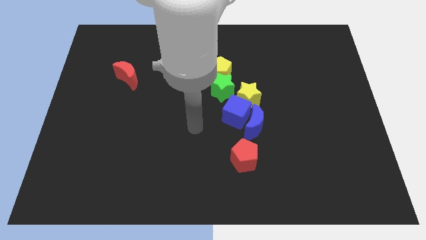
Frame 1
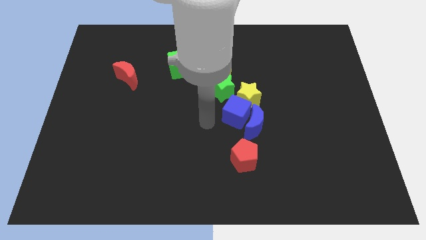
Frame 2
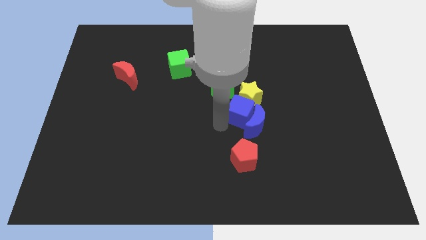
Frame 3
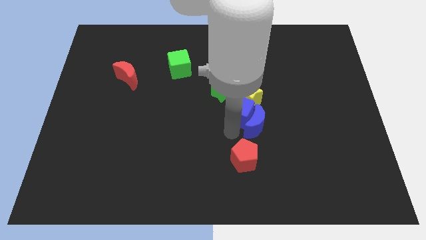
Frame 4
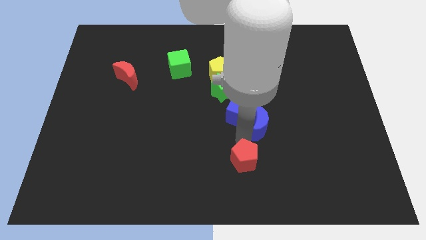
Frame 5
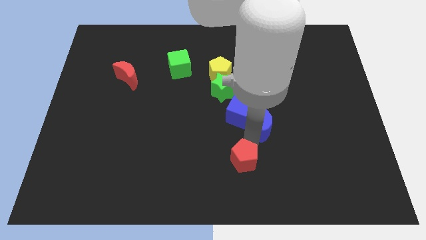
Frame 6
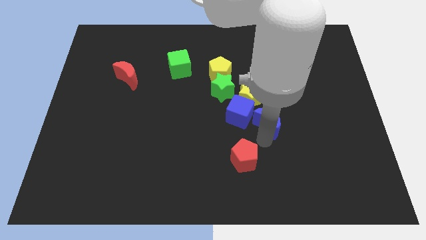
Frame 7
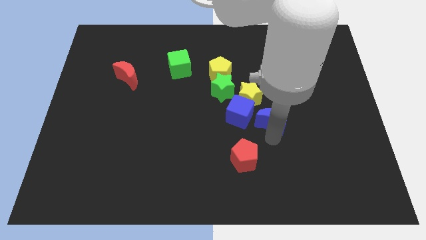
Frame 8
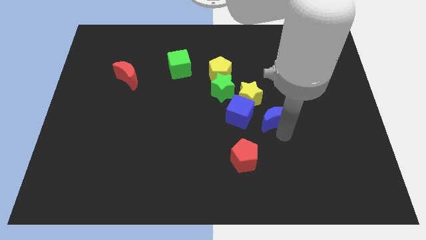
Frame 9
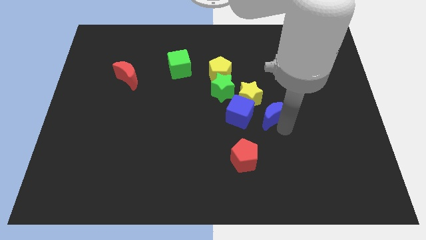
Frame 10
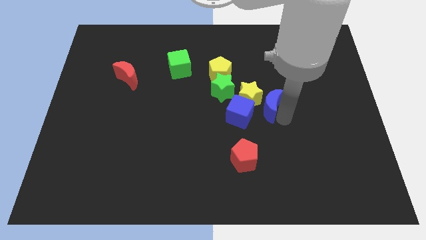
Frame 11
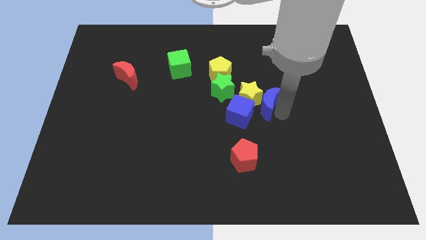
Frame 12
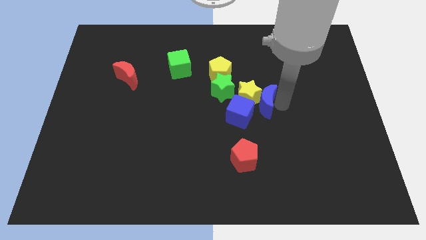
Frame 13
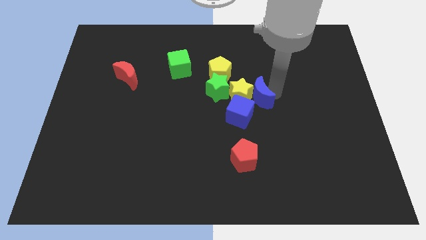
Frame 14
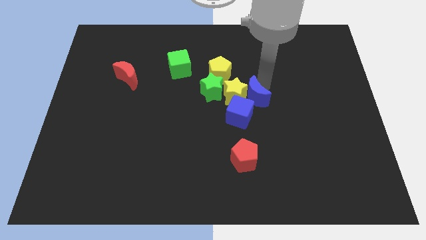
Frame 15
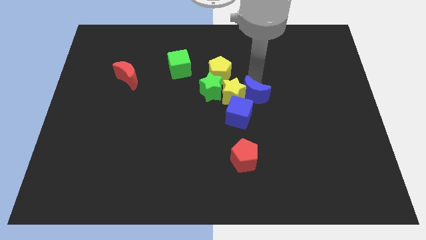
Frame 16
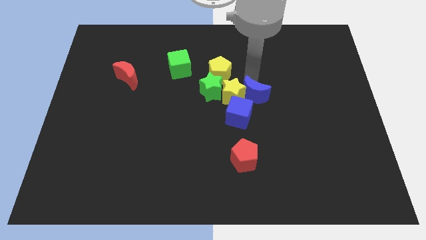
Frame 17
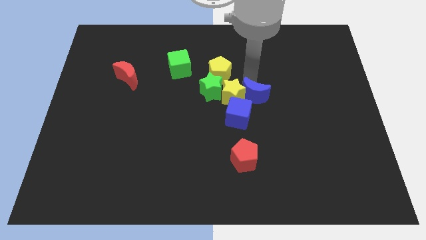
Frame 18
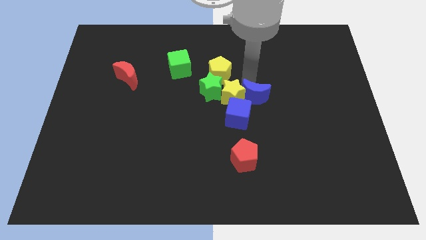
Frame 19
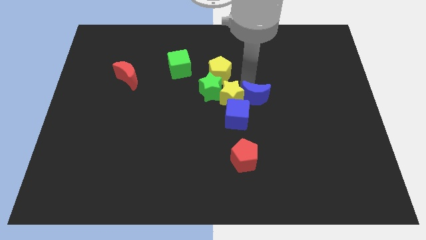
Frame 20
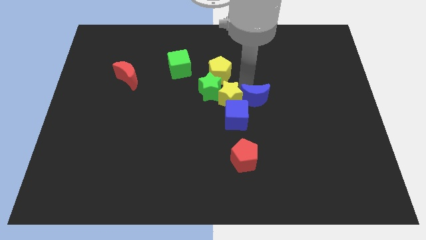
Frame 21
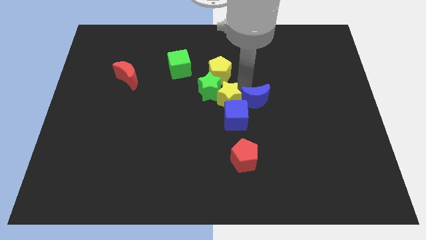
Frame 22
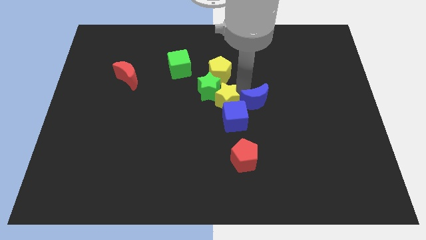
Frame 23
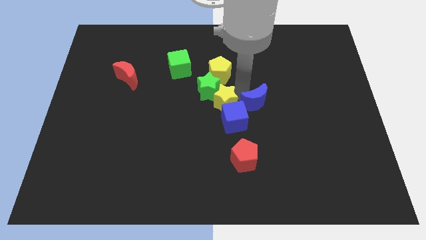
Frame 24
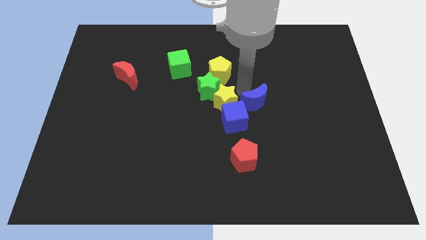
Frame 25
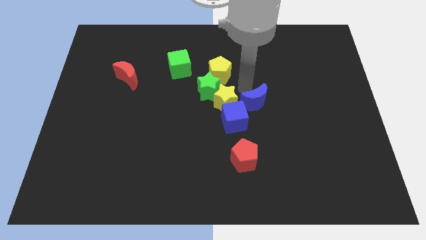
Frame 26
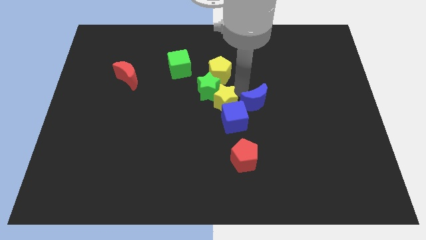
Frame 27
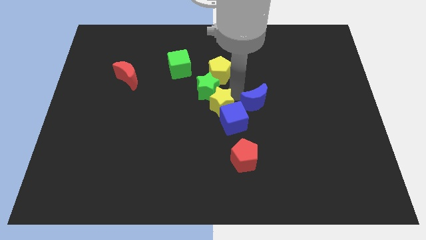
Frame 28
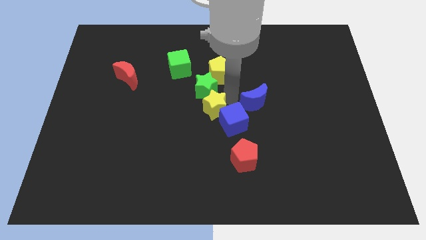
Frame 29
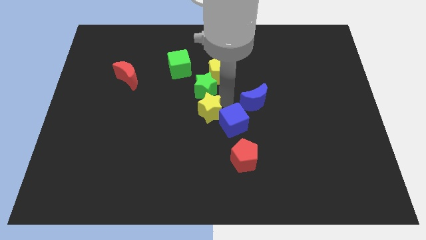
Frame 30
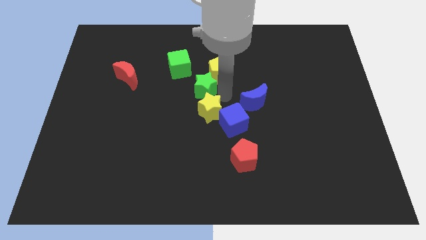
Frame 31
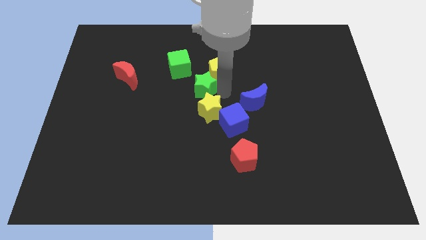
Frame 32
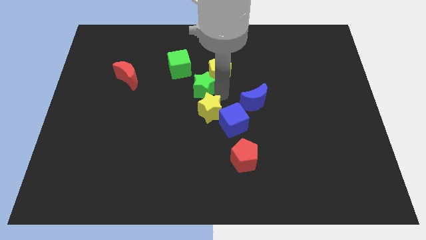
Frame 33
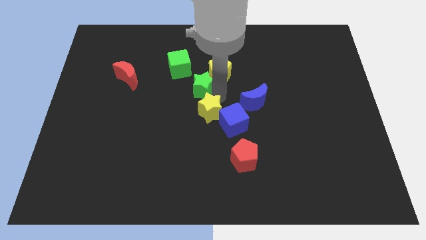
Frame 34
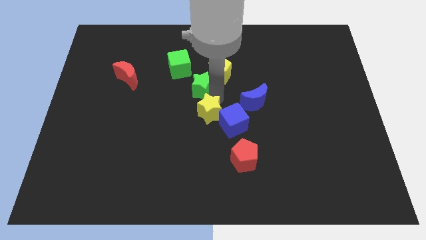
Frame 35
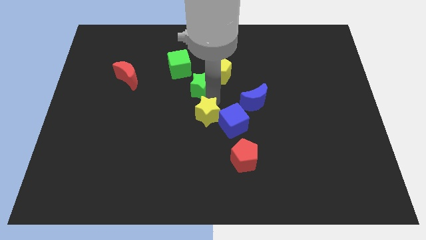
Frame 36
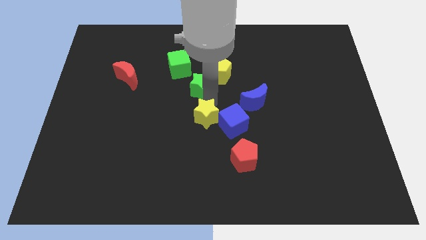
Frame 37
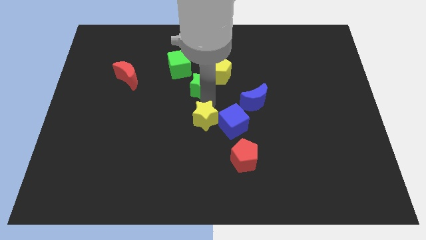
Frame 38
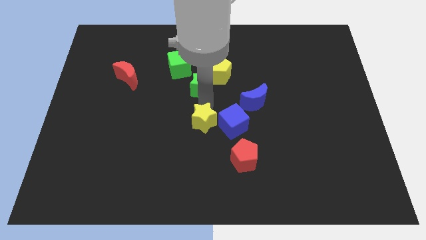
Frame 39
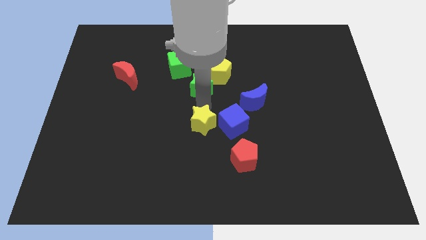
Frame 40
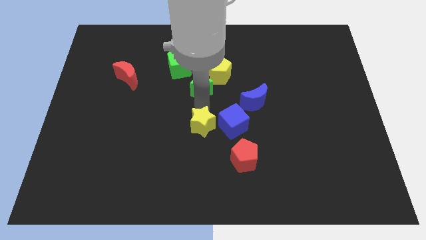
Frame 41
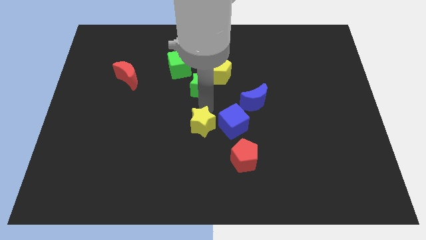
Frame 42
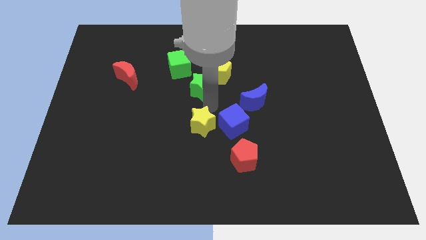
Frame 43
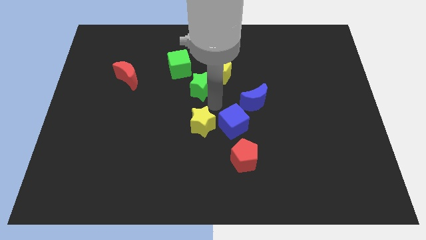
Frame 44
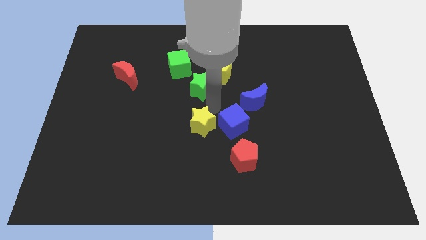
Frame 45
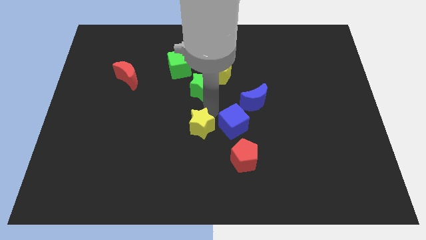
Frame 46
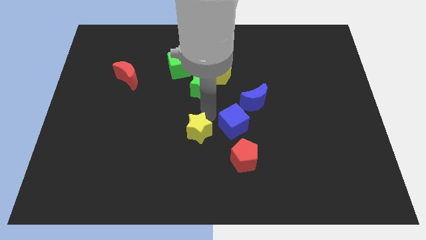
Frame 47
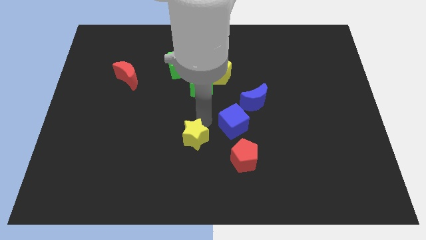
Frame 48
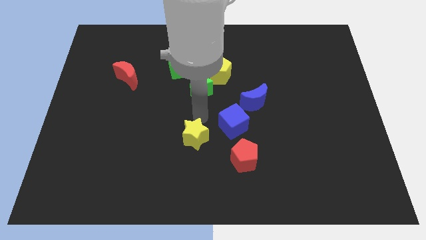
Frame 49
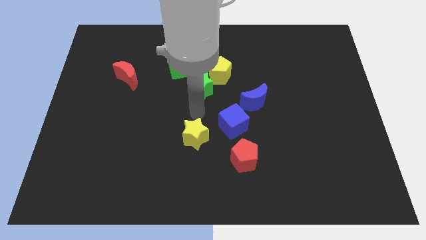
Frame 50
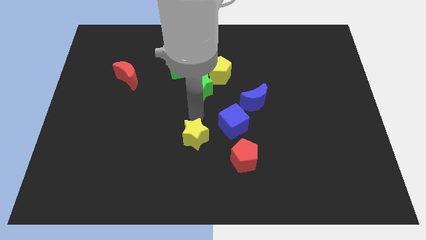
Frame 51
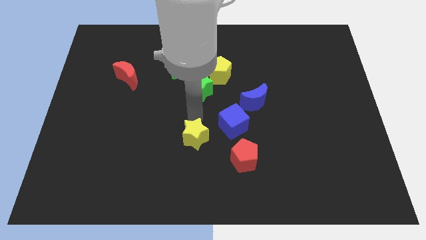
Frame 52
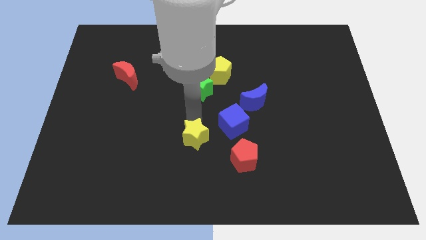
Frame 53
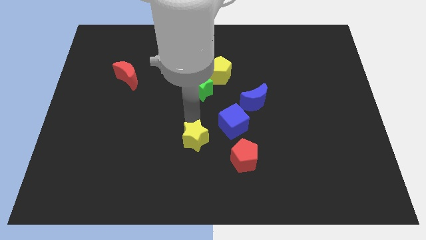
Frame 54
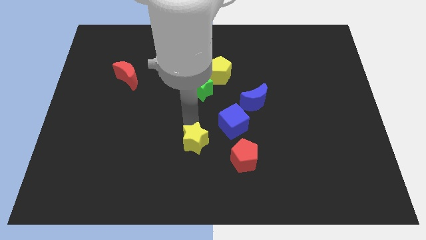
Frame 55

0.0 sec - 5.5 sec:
slide the yellow star to the left of the red pentagon
